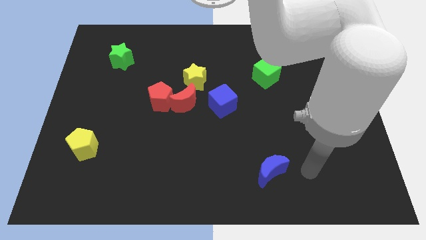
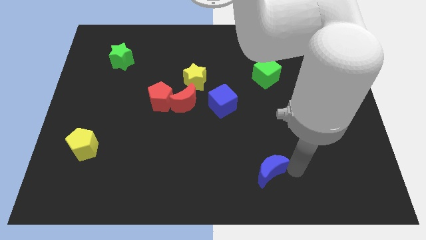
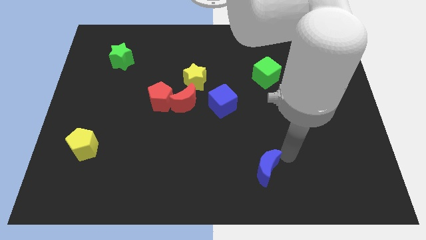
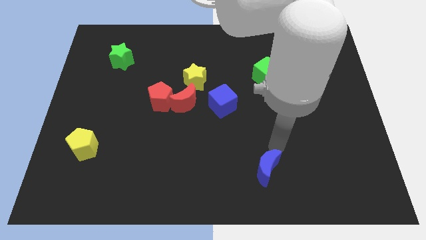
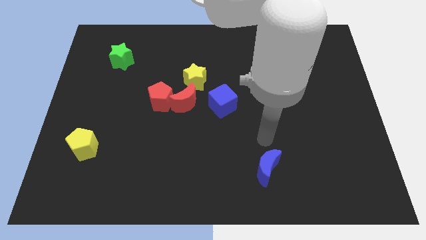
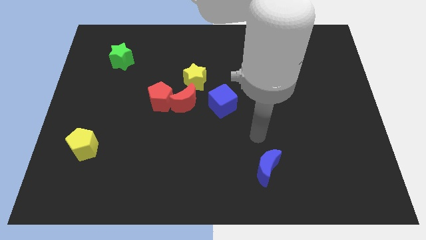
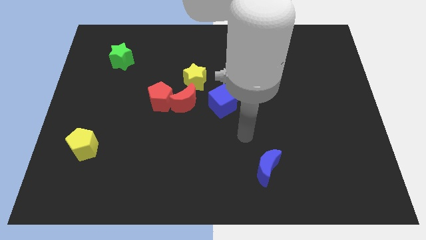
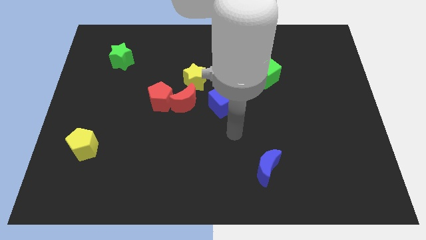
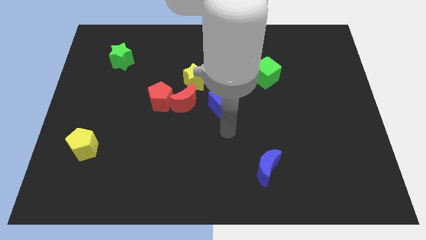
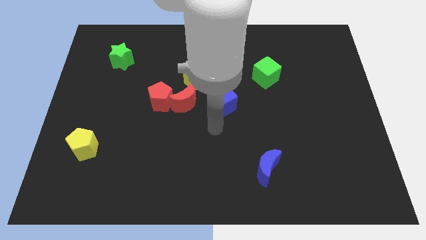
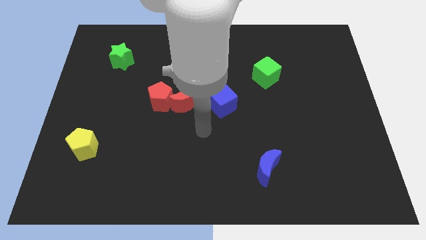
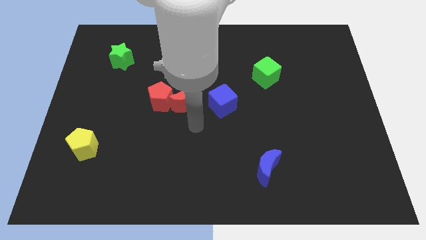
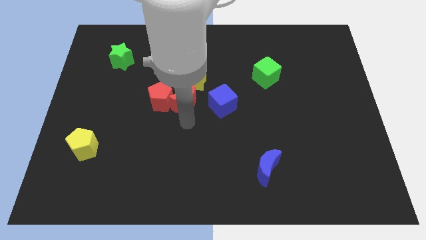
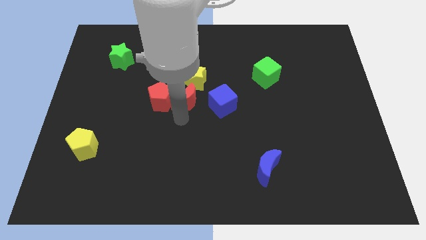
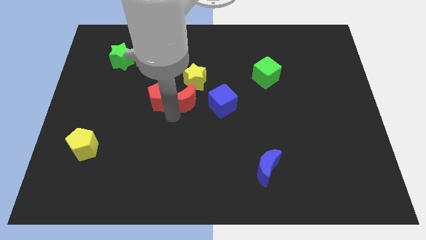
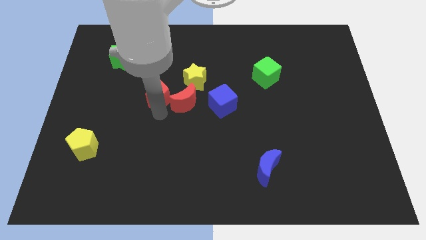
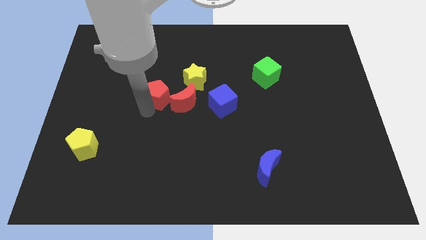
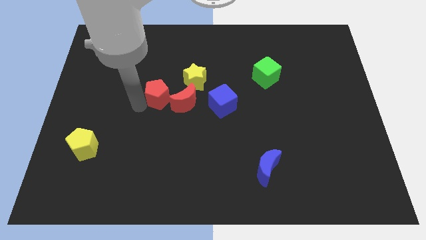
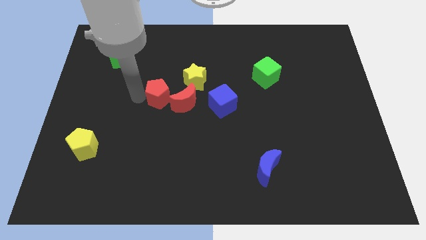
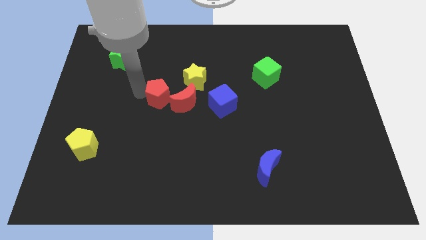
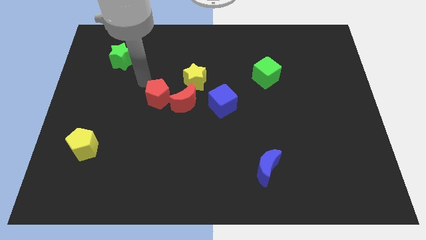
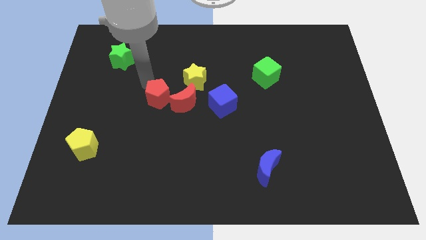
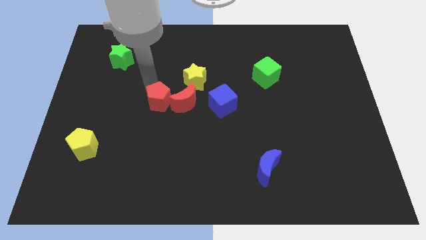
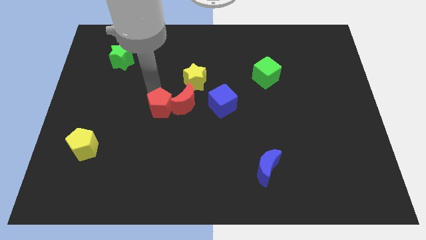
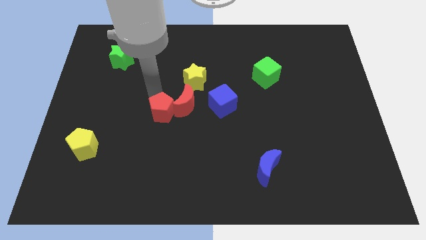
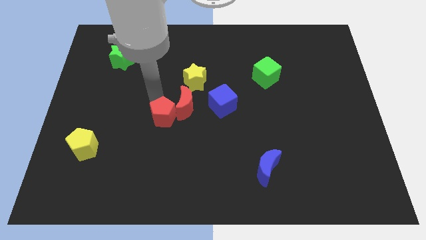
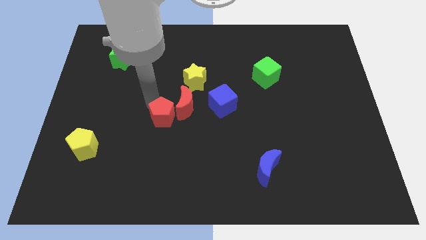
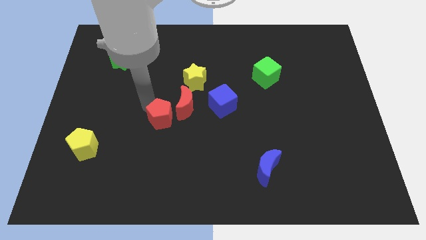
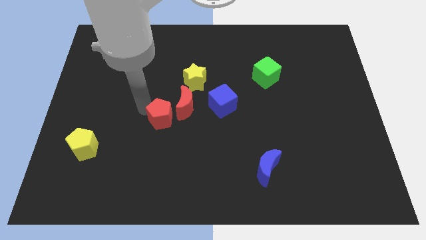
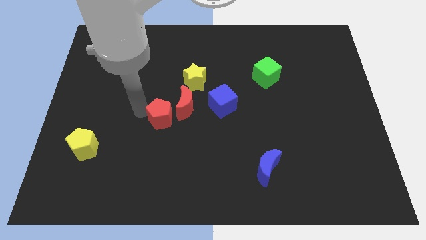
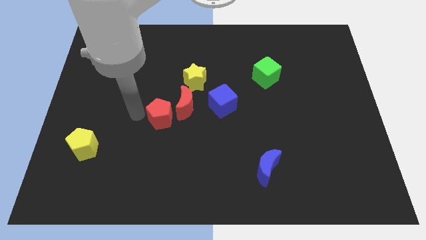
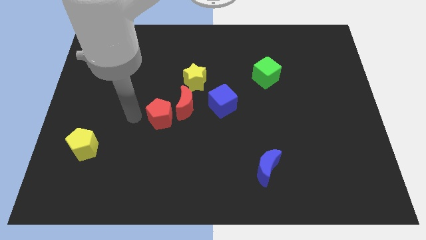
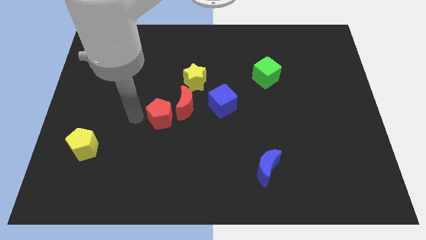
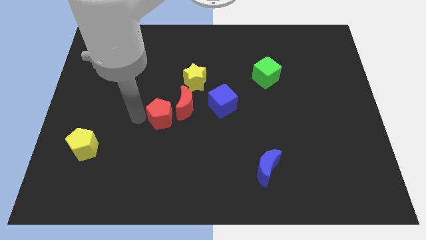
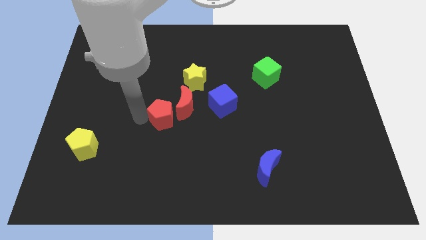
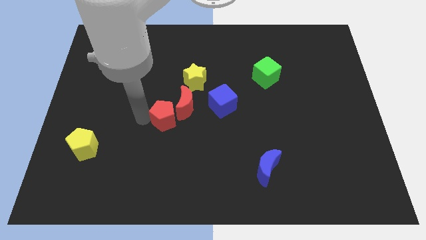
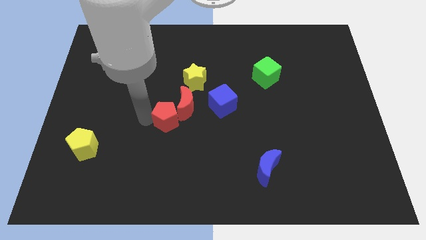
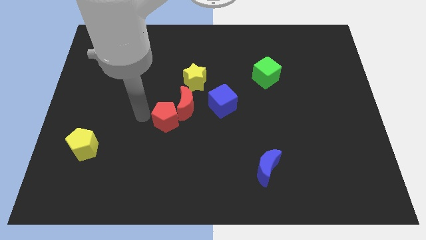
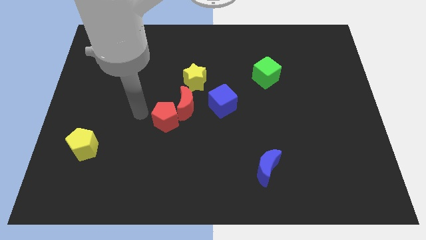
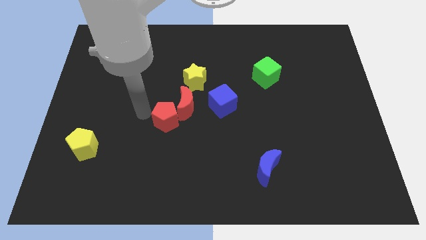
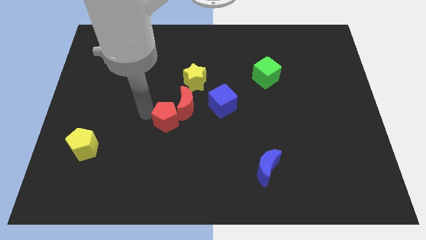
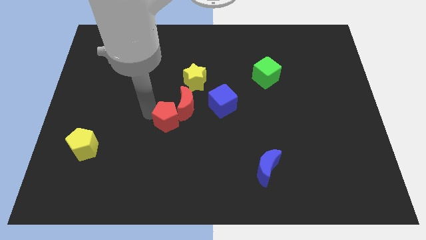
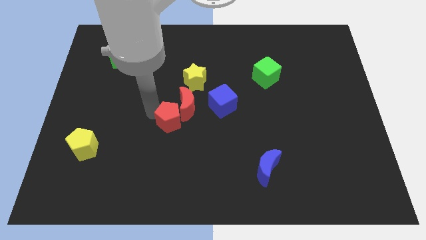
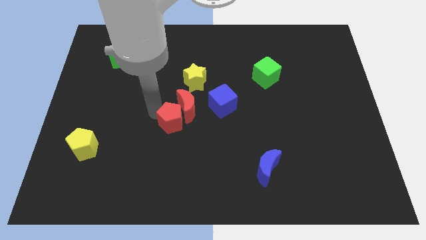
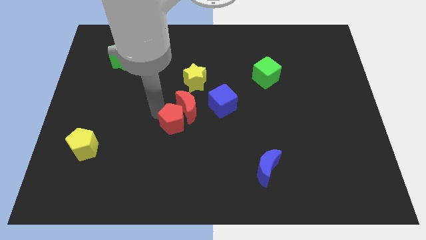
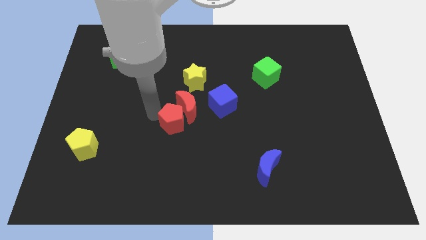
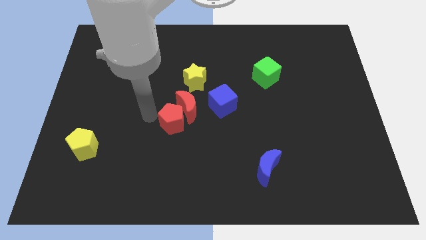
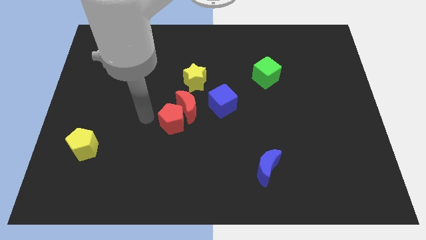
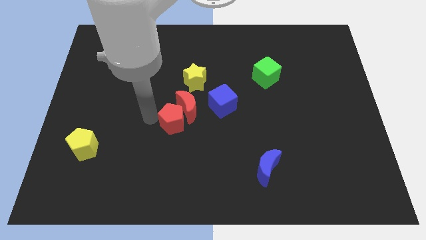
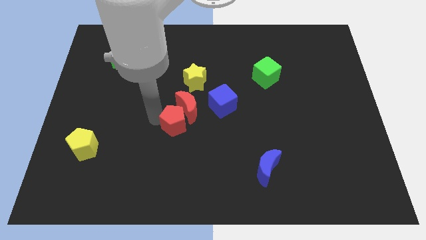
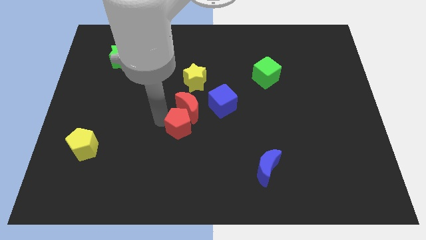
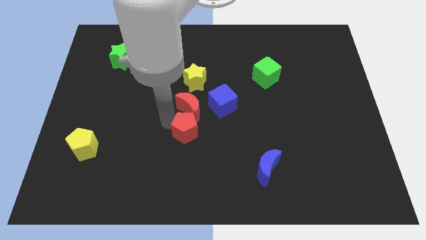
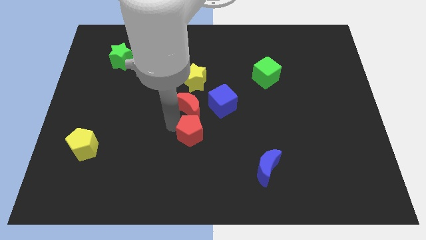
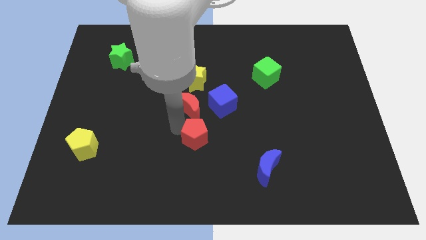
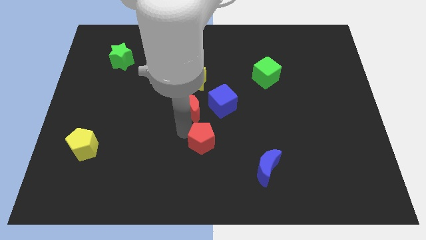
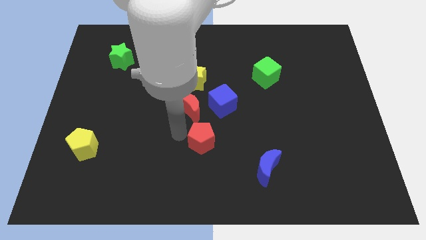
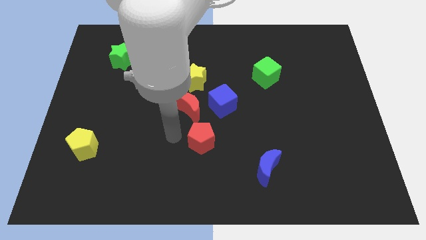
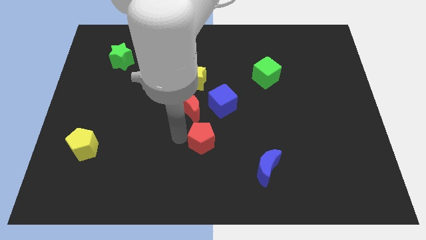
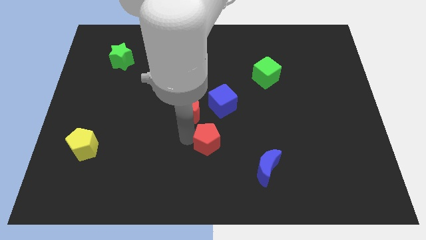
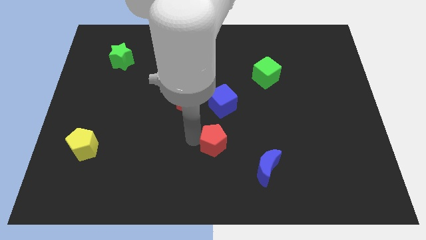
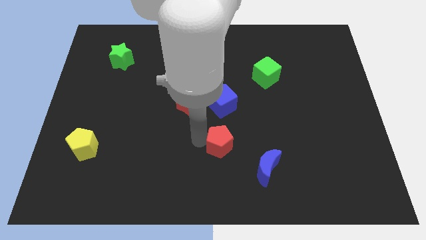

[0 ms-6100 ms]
push the red pentagon diagonally up and to the left of the blue moon

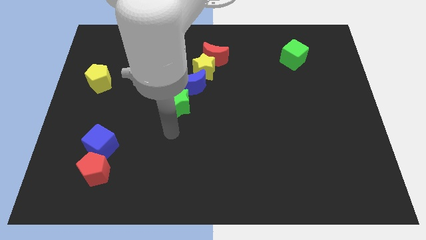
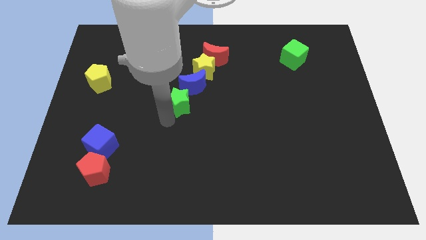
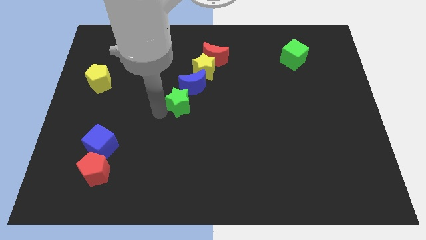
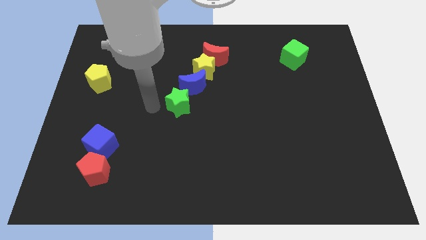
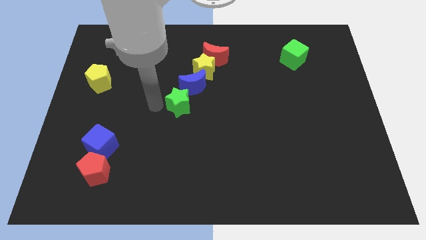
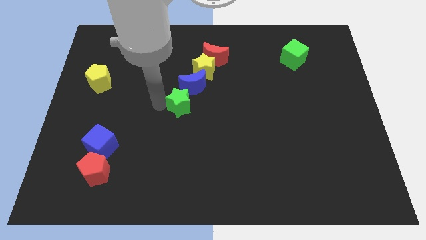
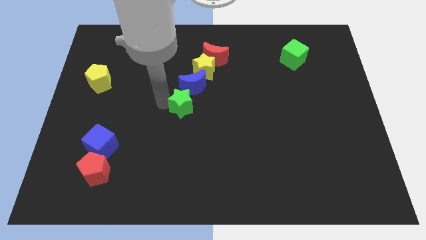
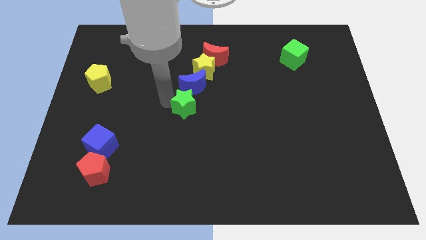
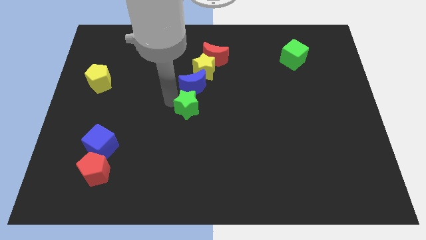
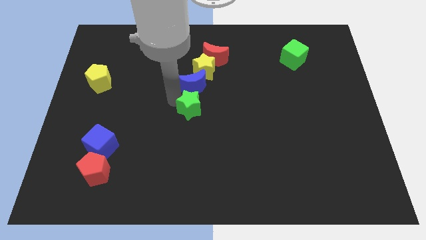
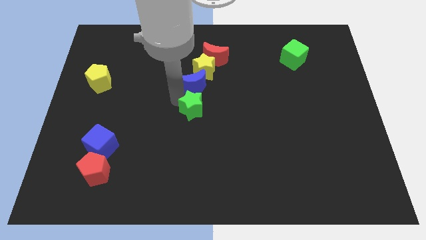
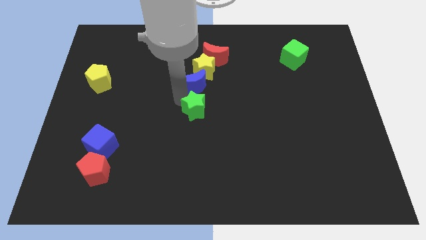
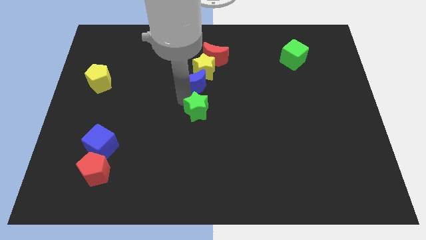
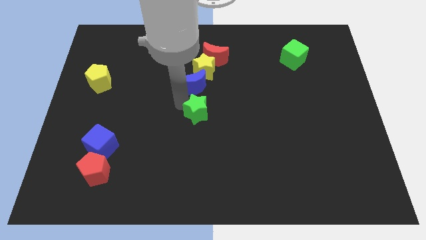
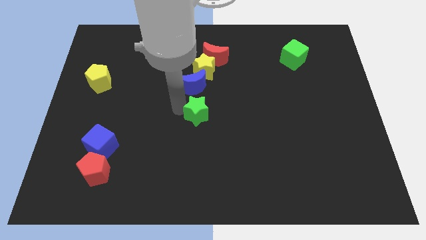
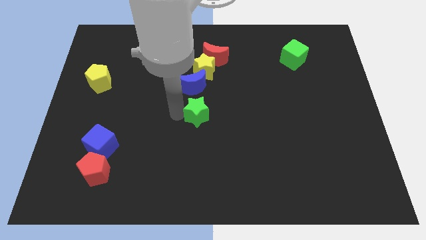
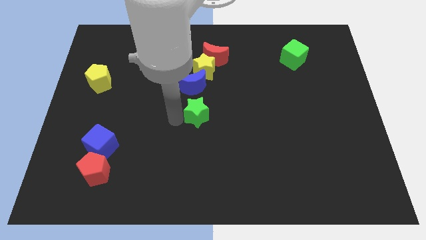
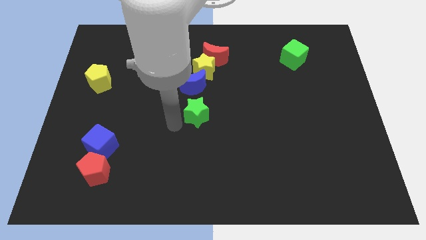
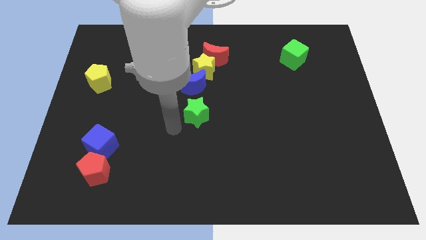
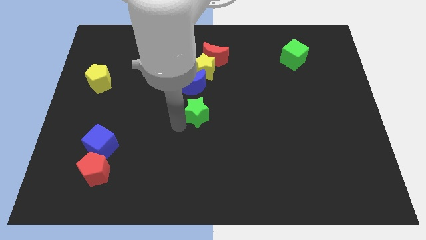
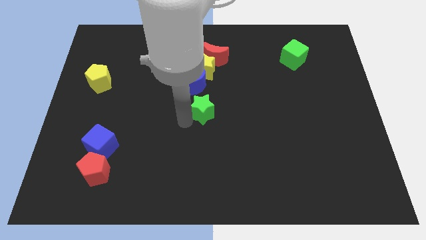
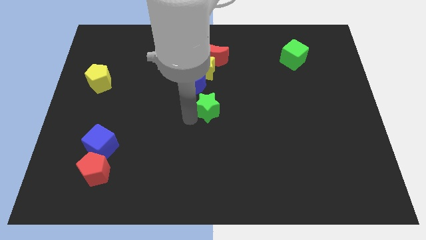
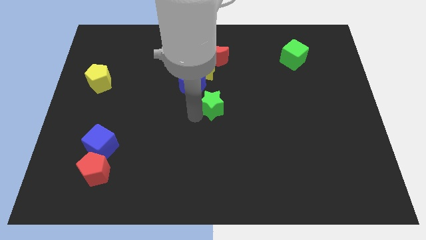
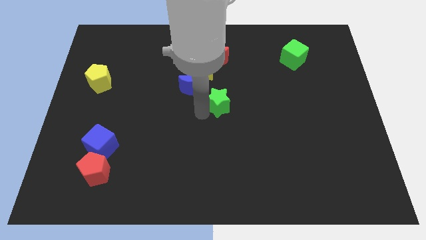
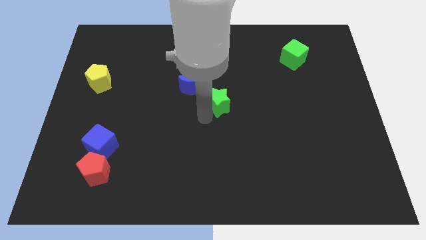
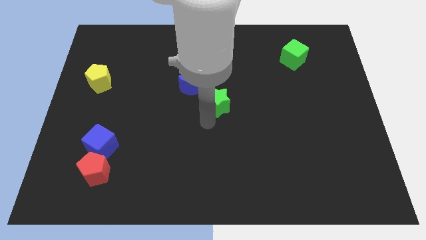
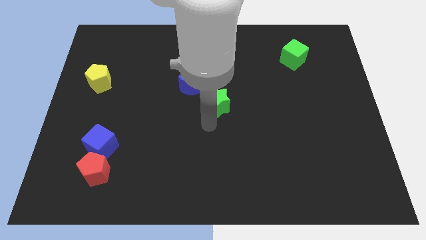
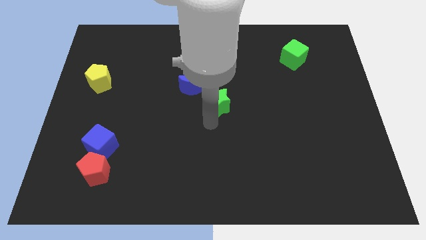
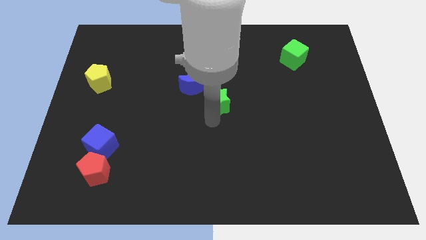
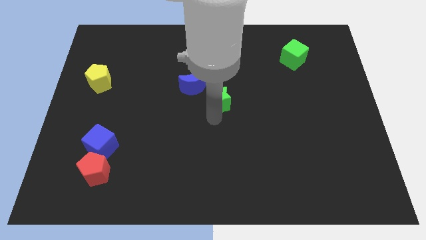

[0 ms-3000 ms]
push the green star to the bottom right of the yellow star
